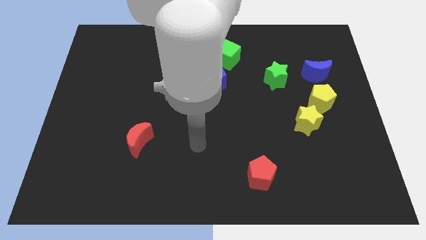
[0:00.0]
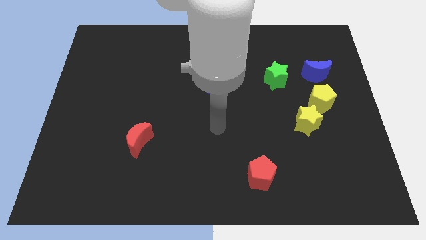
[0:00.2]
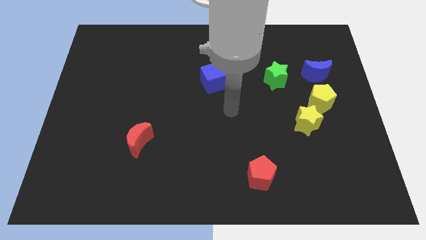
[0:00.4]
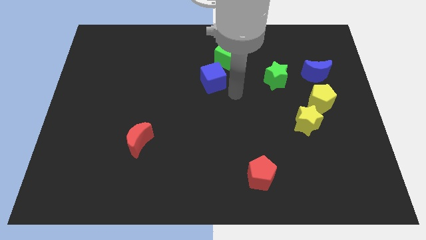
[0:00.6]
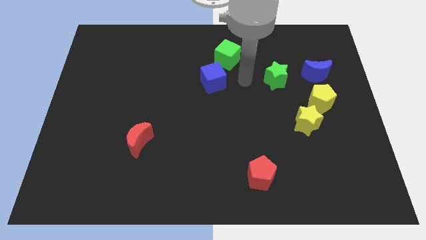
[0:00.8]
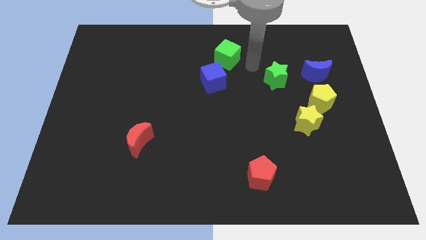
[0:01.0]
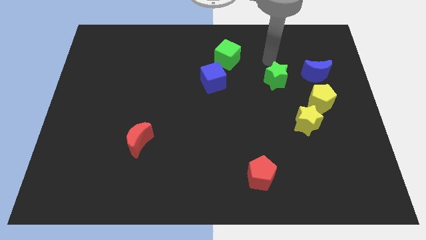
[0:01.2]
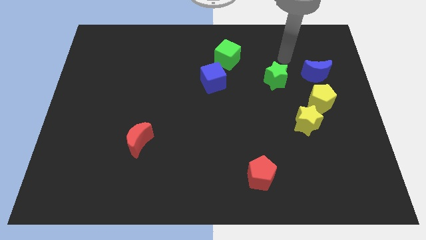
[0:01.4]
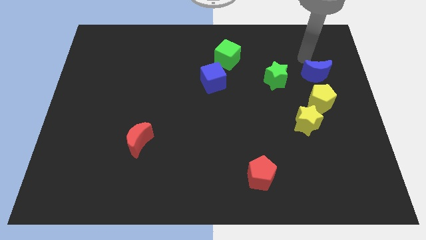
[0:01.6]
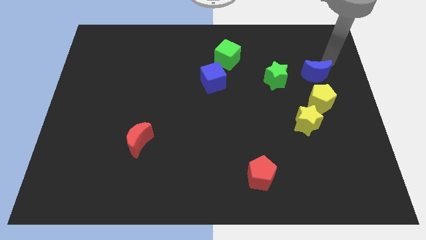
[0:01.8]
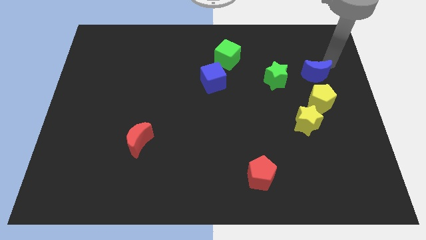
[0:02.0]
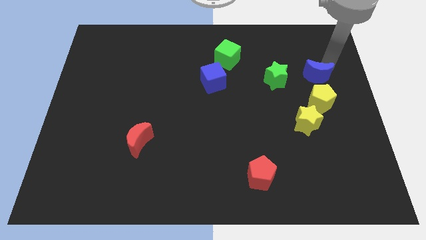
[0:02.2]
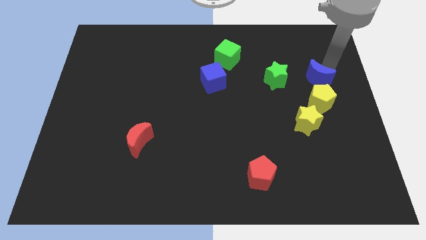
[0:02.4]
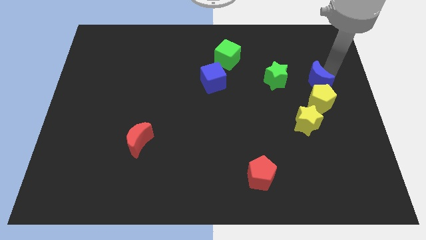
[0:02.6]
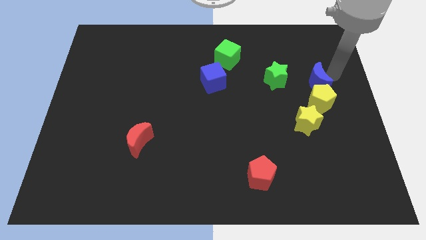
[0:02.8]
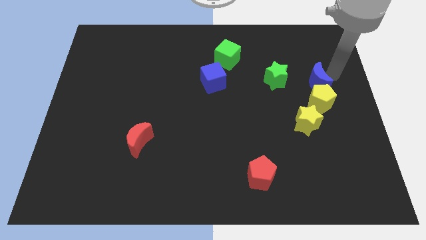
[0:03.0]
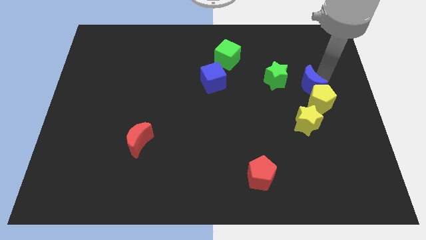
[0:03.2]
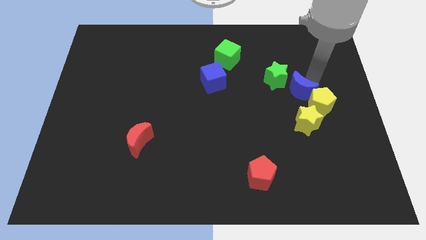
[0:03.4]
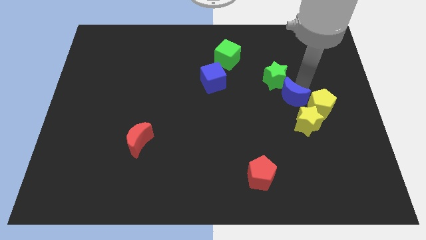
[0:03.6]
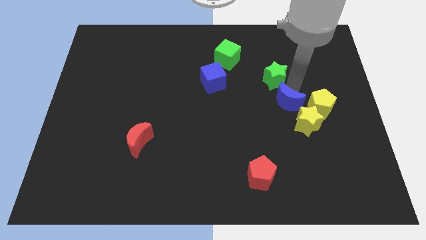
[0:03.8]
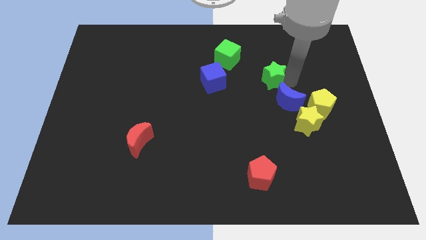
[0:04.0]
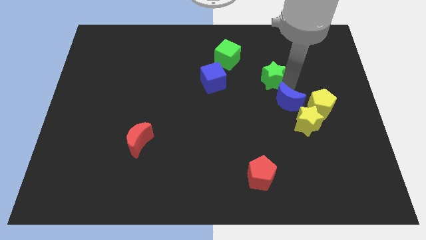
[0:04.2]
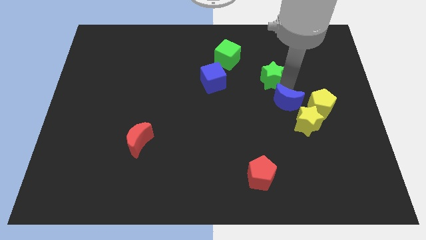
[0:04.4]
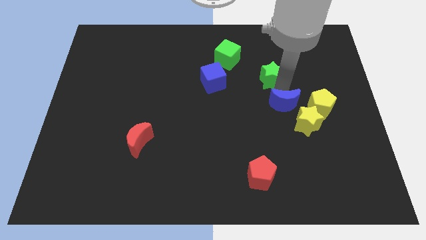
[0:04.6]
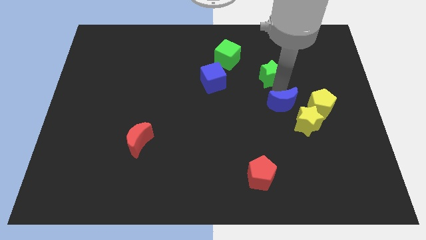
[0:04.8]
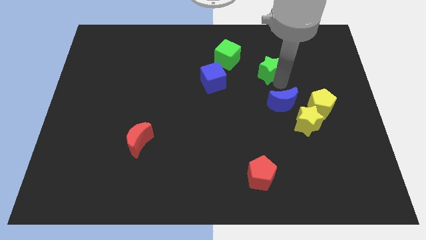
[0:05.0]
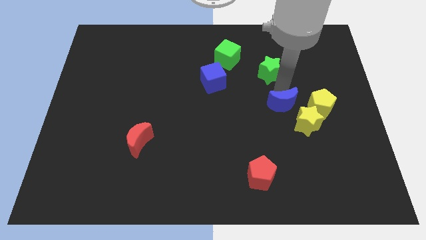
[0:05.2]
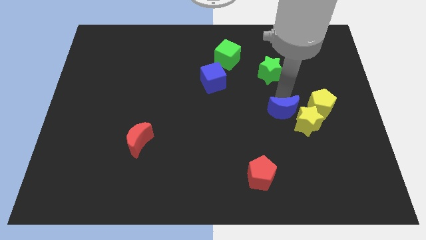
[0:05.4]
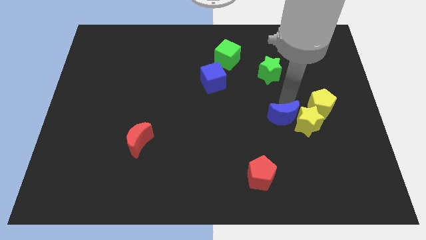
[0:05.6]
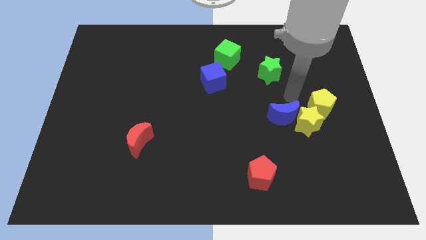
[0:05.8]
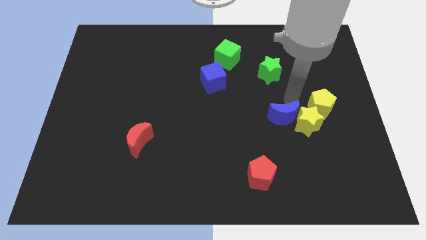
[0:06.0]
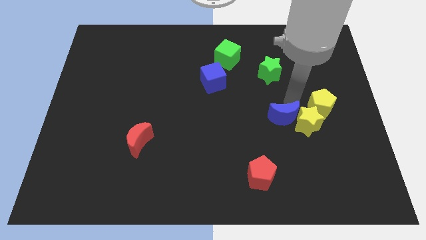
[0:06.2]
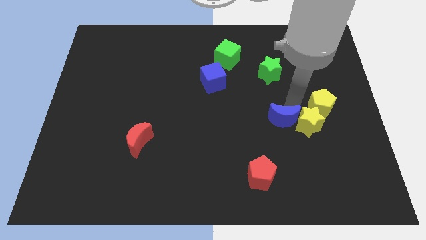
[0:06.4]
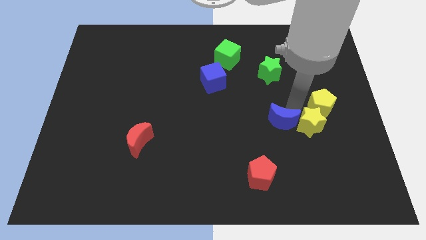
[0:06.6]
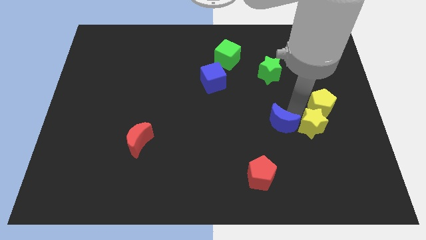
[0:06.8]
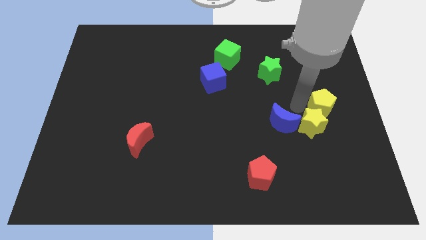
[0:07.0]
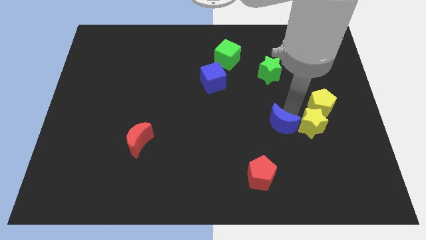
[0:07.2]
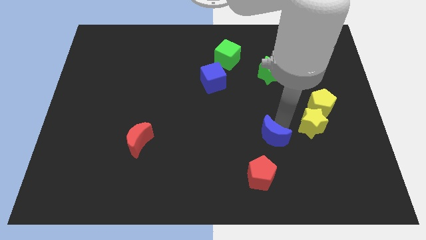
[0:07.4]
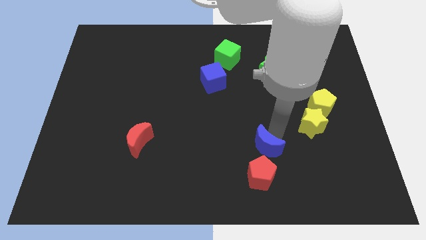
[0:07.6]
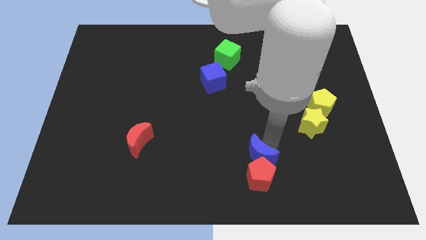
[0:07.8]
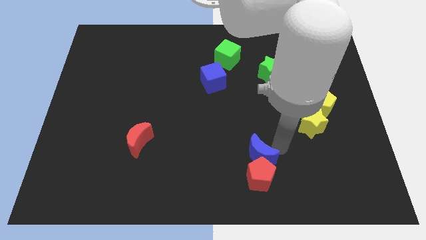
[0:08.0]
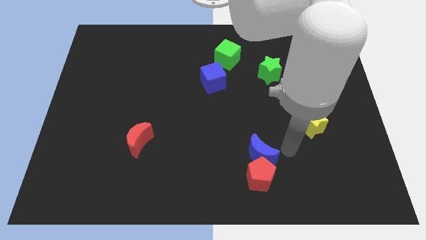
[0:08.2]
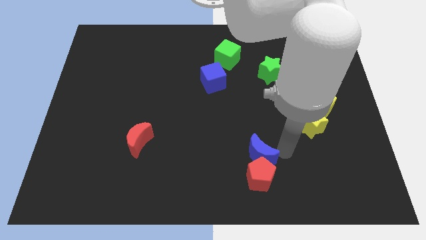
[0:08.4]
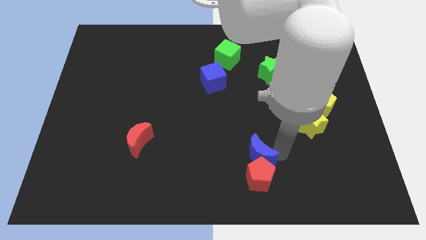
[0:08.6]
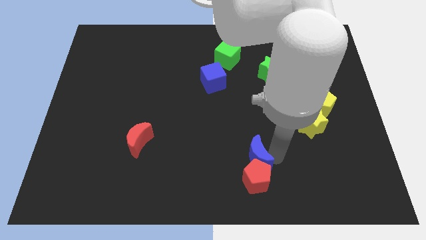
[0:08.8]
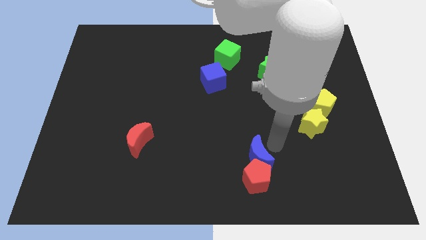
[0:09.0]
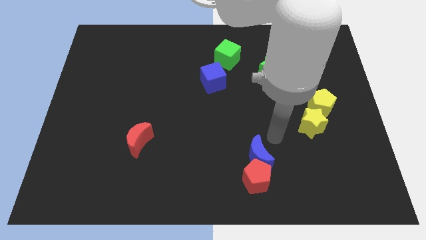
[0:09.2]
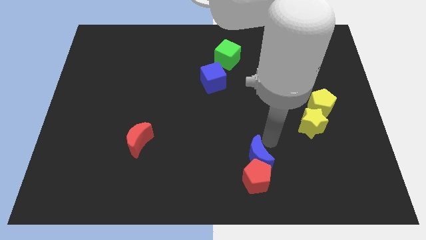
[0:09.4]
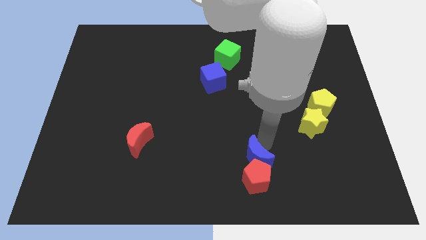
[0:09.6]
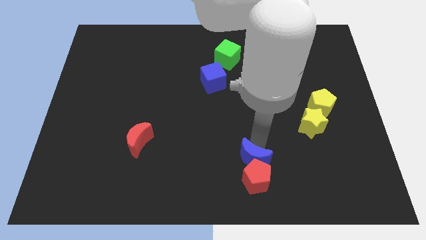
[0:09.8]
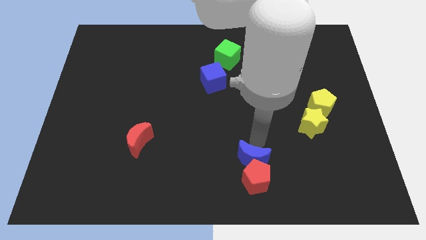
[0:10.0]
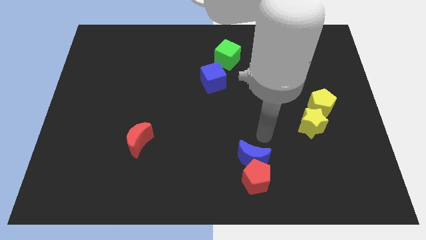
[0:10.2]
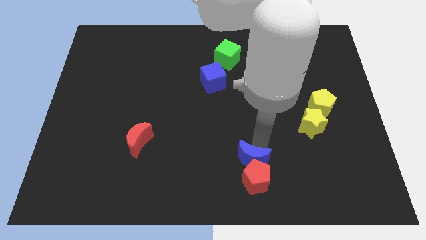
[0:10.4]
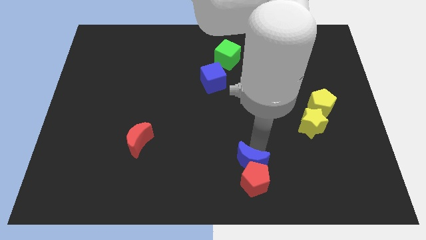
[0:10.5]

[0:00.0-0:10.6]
push the blue moon to the bottom side

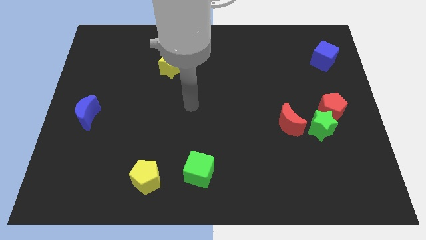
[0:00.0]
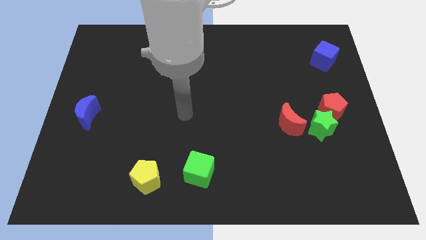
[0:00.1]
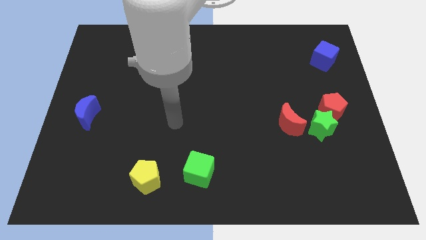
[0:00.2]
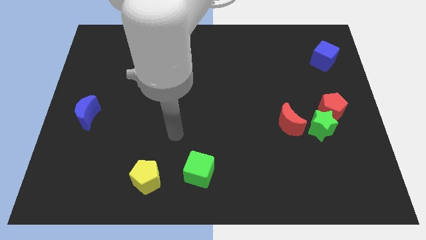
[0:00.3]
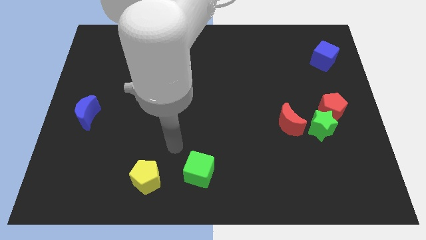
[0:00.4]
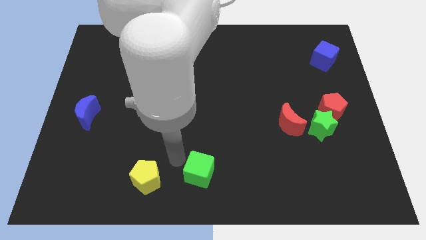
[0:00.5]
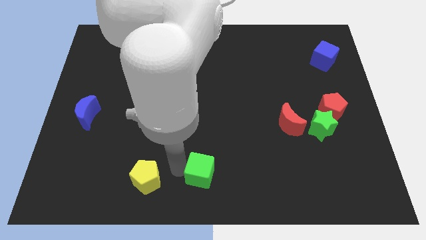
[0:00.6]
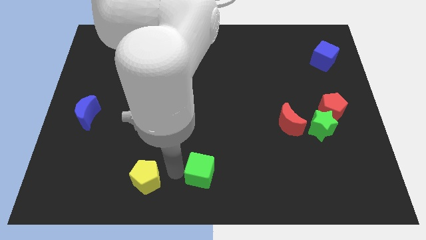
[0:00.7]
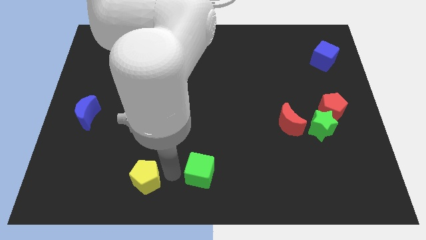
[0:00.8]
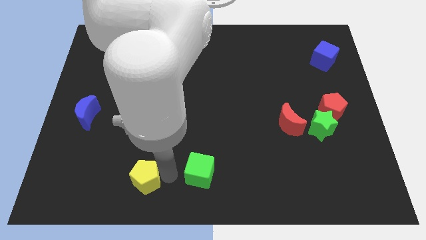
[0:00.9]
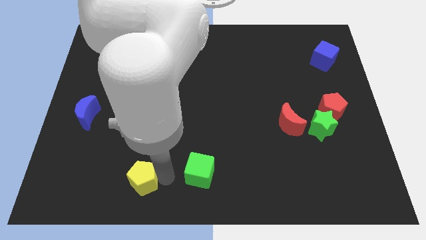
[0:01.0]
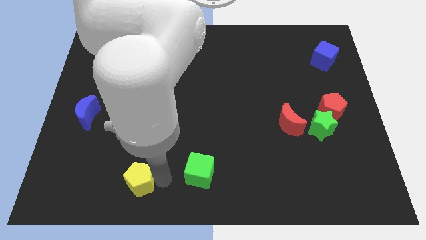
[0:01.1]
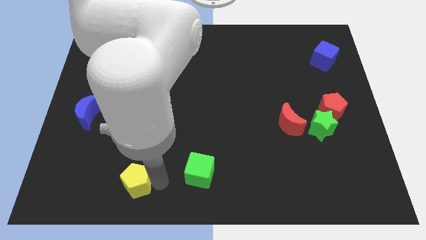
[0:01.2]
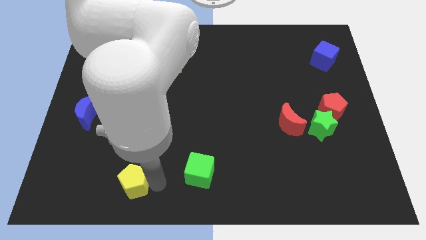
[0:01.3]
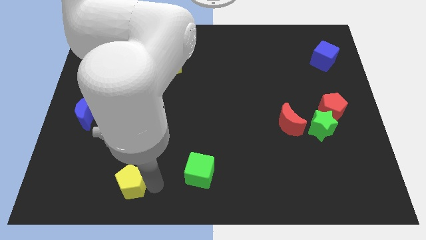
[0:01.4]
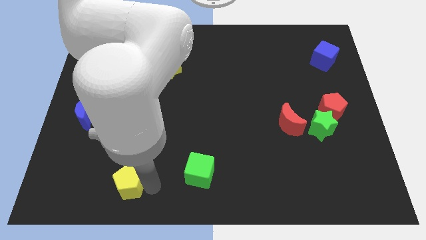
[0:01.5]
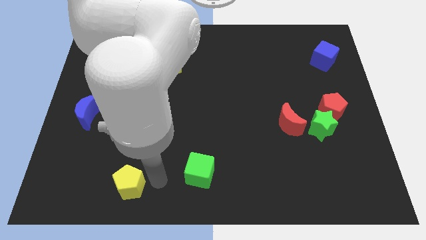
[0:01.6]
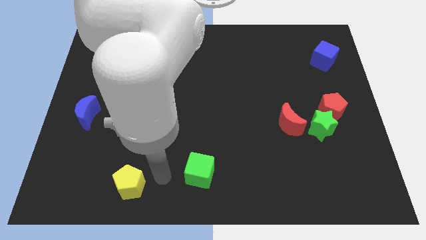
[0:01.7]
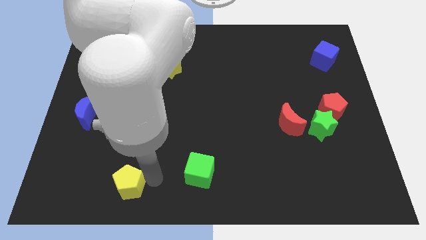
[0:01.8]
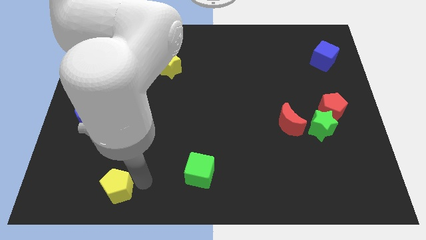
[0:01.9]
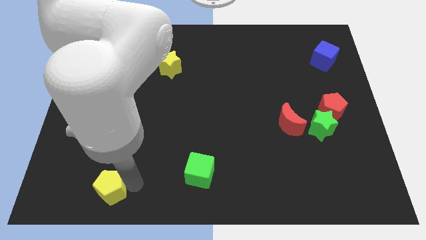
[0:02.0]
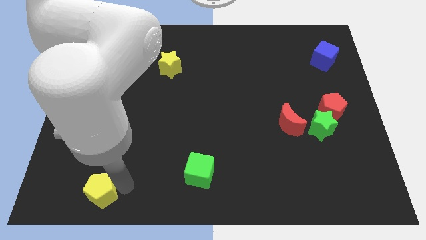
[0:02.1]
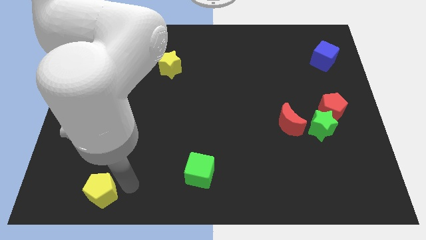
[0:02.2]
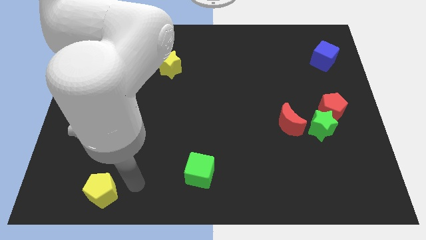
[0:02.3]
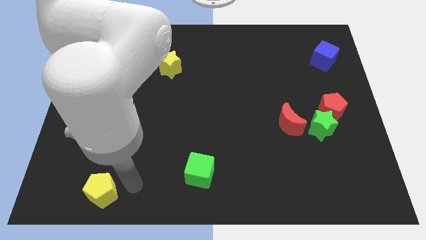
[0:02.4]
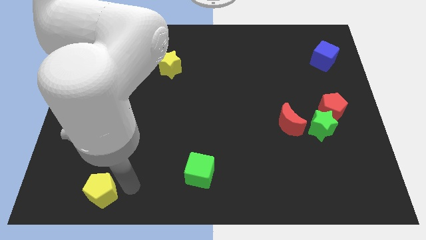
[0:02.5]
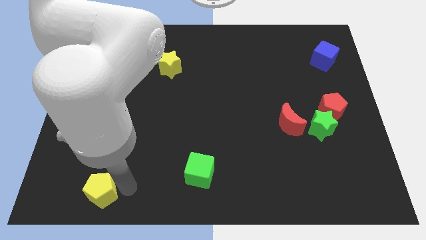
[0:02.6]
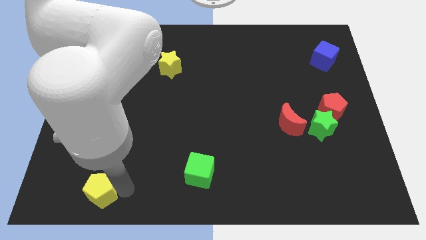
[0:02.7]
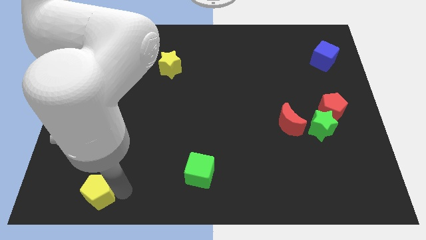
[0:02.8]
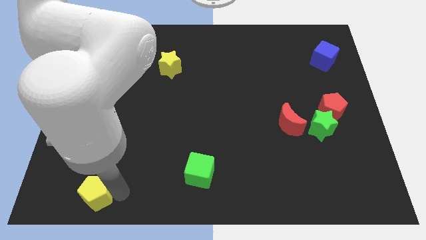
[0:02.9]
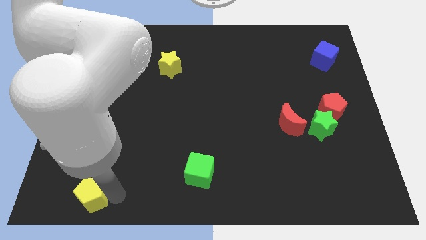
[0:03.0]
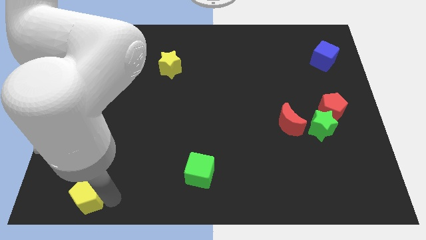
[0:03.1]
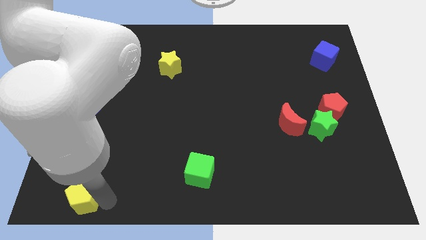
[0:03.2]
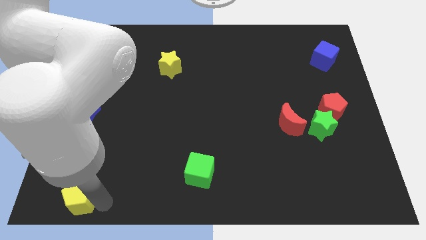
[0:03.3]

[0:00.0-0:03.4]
push the yellow pentagon to the bottom left
